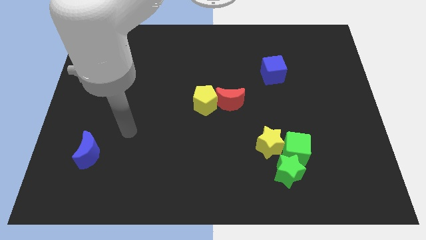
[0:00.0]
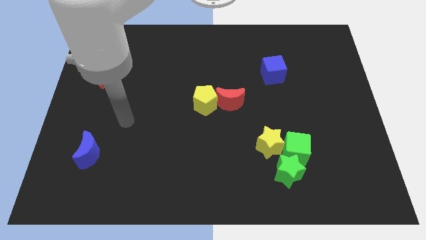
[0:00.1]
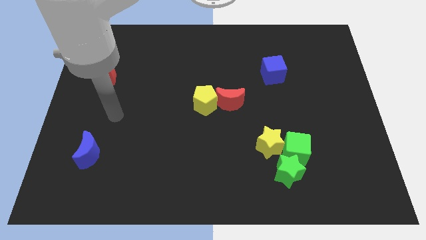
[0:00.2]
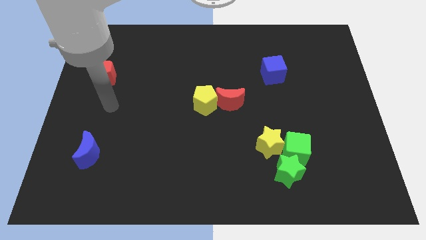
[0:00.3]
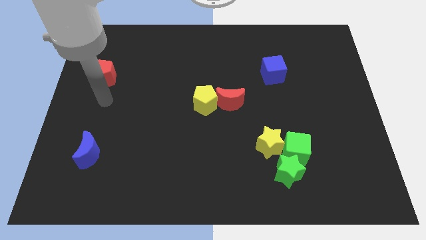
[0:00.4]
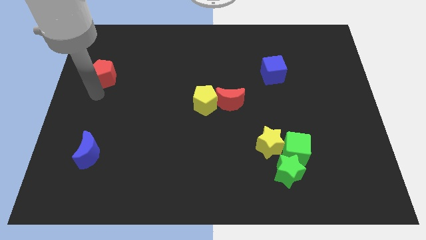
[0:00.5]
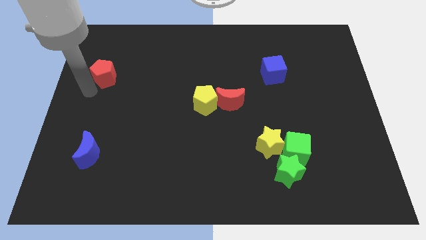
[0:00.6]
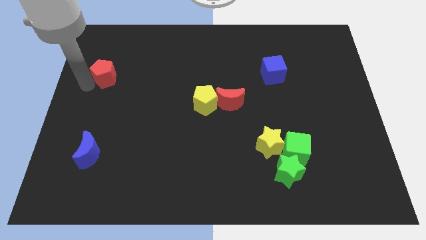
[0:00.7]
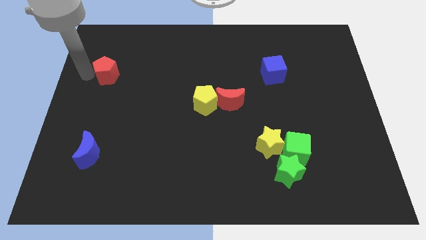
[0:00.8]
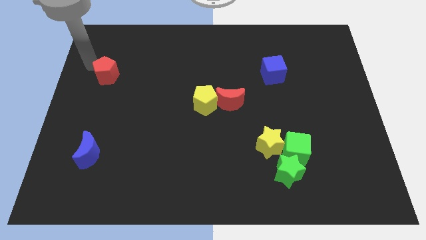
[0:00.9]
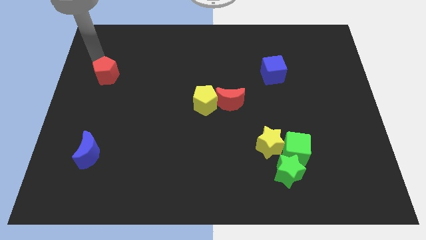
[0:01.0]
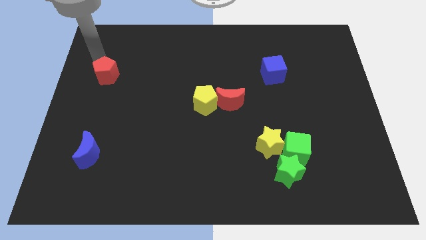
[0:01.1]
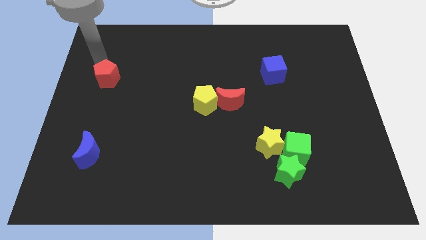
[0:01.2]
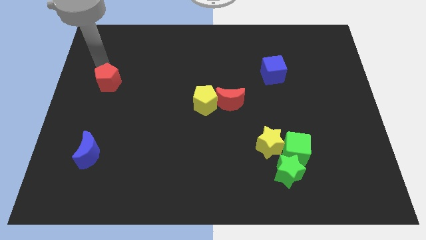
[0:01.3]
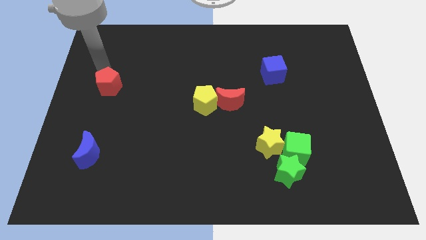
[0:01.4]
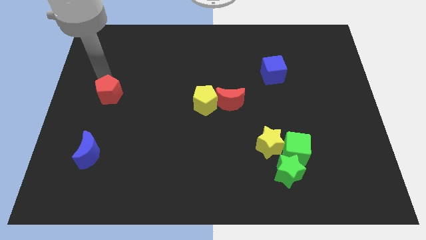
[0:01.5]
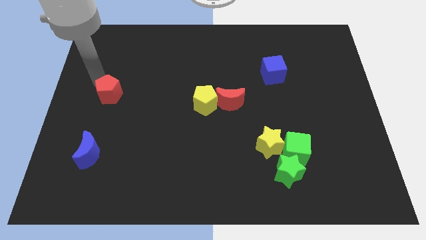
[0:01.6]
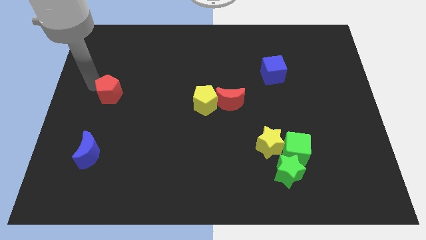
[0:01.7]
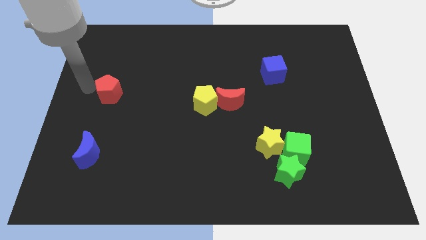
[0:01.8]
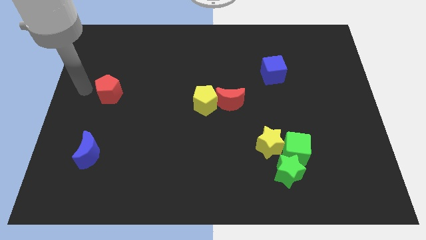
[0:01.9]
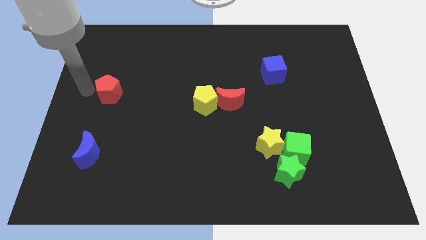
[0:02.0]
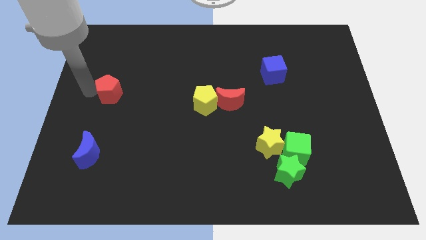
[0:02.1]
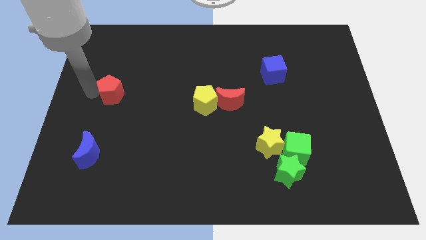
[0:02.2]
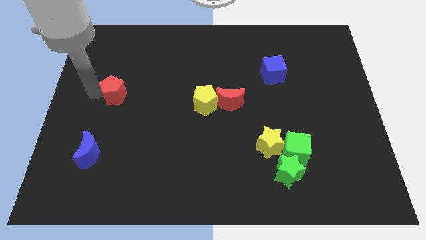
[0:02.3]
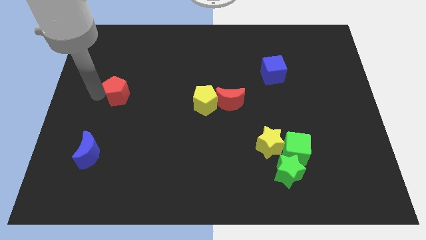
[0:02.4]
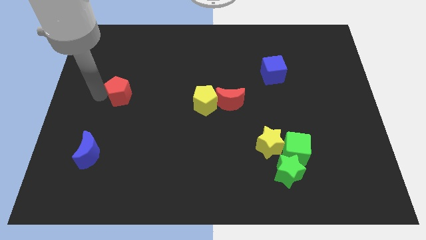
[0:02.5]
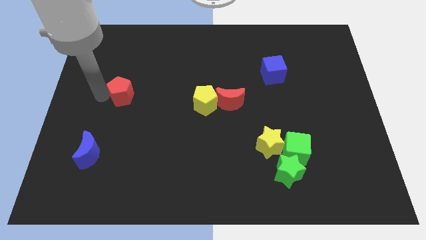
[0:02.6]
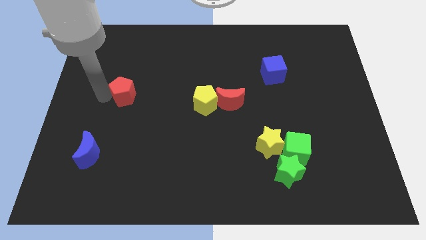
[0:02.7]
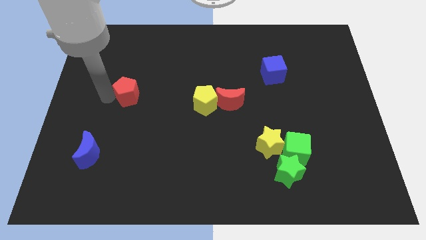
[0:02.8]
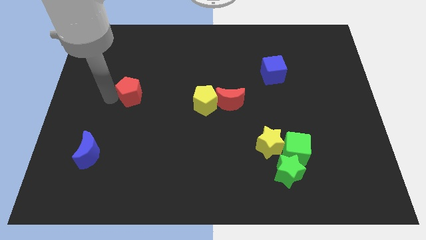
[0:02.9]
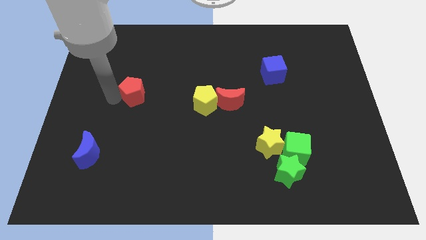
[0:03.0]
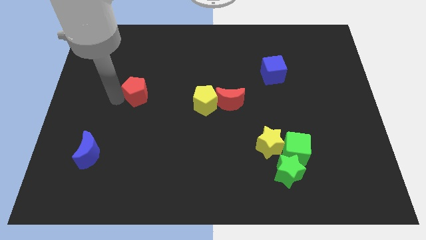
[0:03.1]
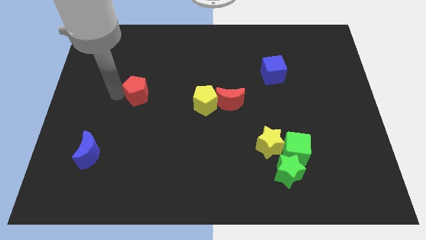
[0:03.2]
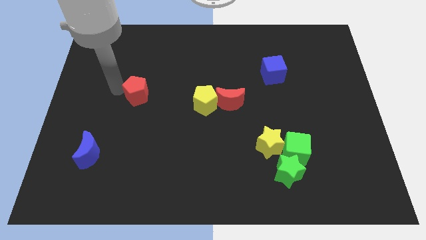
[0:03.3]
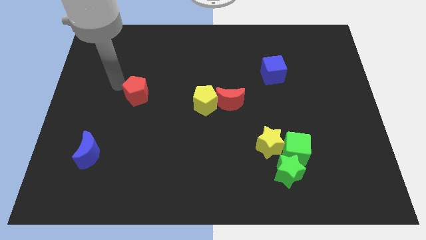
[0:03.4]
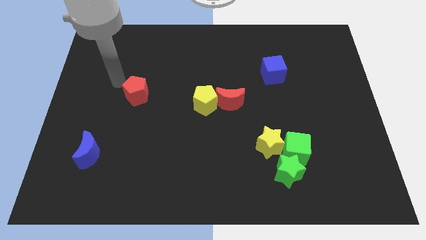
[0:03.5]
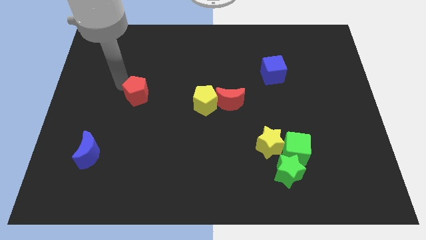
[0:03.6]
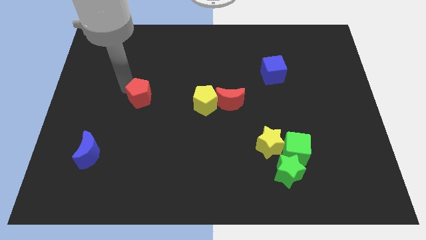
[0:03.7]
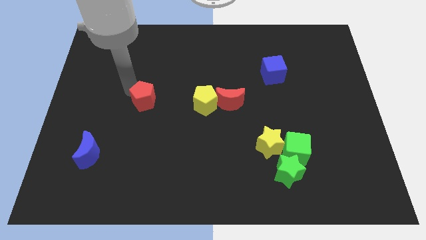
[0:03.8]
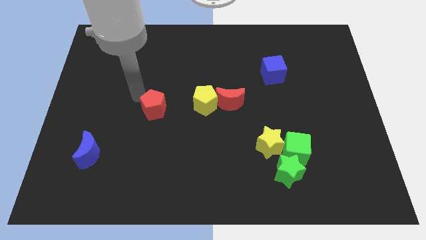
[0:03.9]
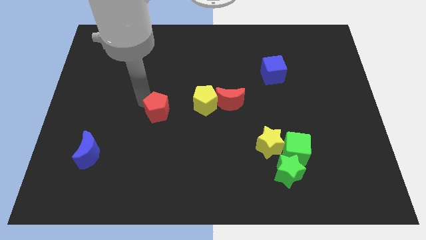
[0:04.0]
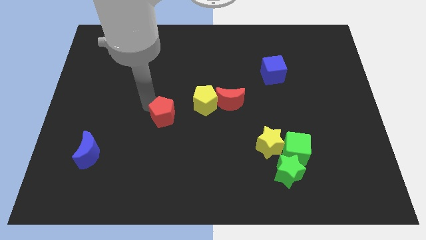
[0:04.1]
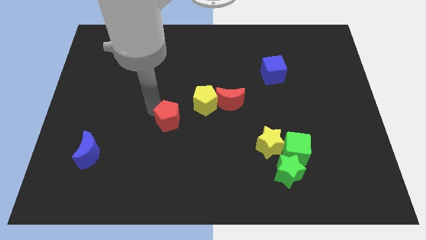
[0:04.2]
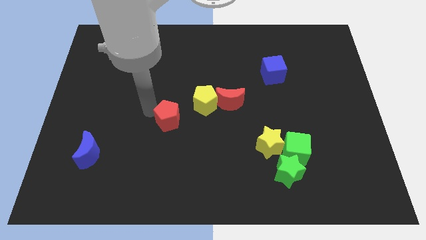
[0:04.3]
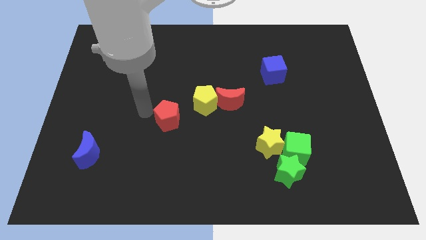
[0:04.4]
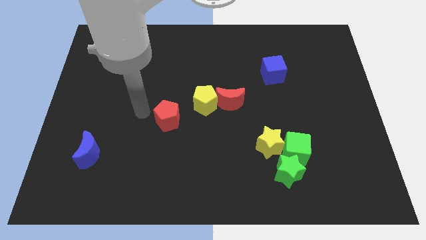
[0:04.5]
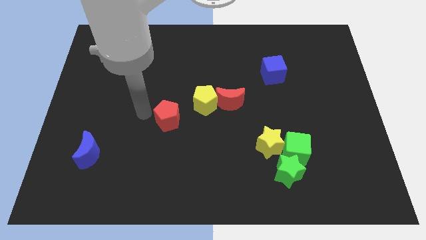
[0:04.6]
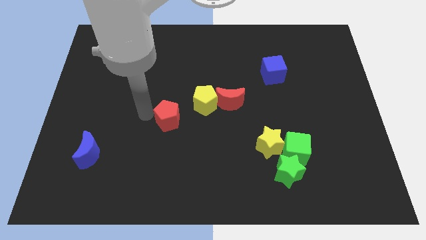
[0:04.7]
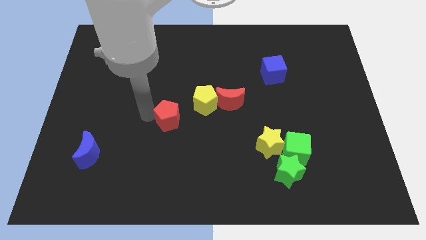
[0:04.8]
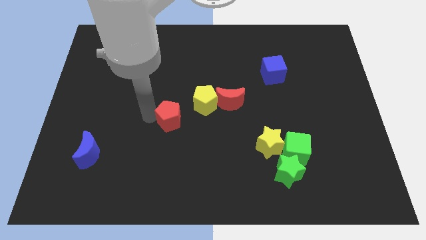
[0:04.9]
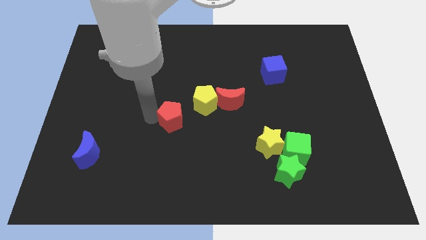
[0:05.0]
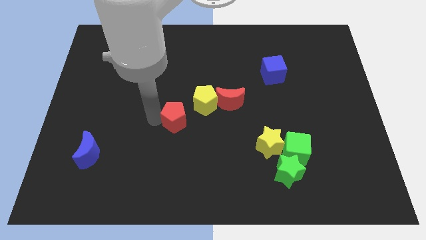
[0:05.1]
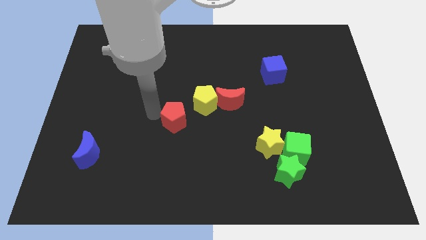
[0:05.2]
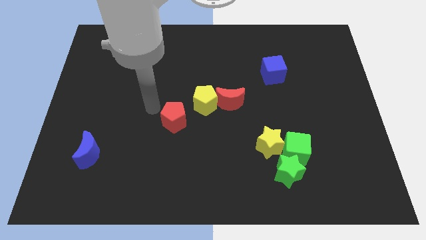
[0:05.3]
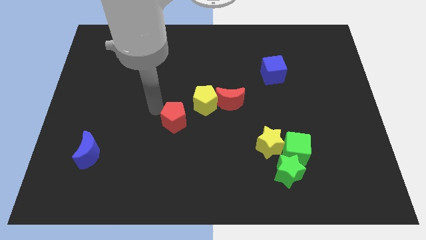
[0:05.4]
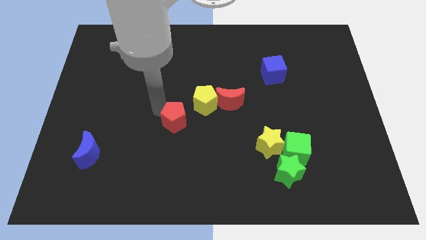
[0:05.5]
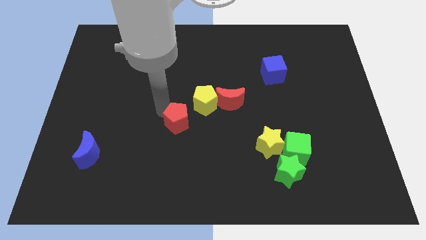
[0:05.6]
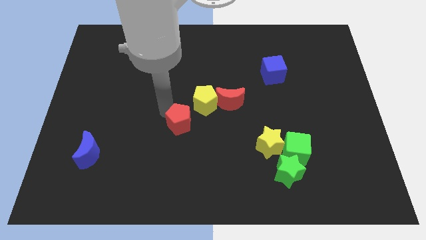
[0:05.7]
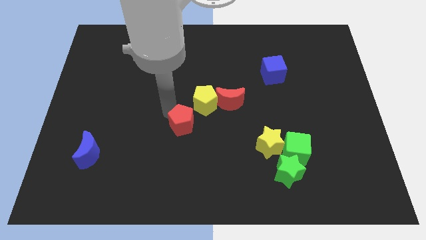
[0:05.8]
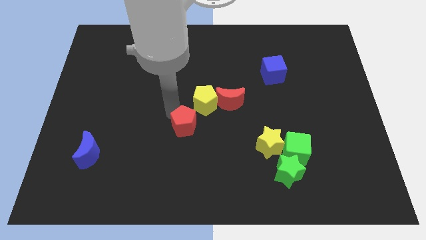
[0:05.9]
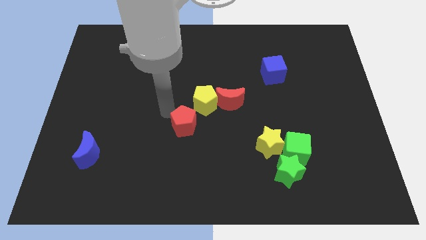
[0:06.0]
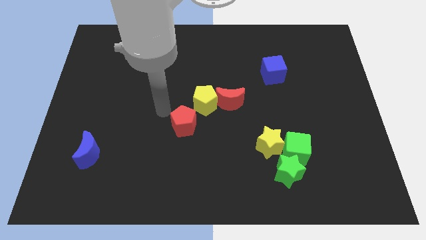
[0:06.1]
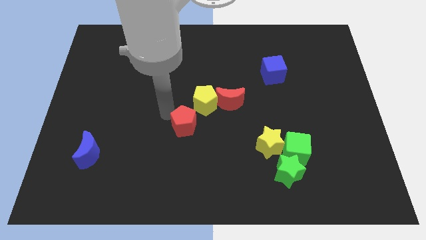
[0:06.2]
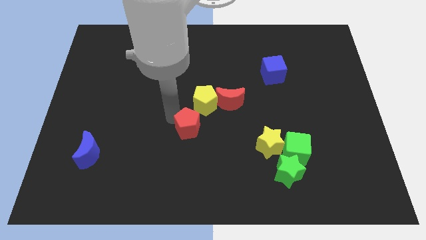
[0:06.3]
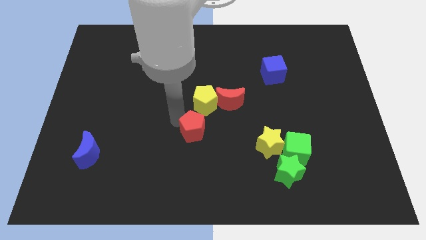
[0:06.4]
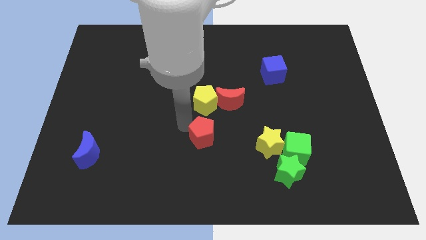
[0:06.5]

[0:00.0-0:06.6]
put the red pentagon just left of the yellow star

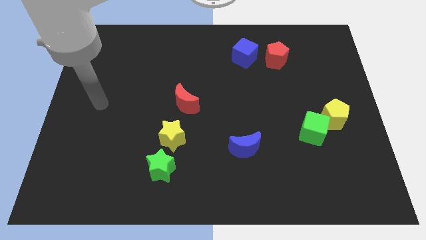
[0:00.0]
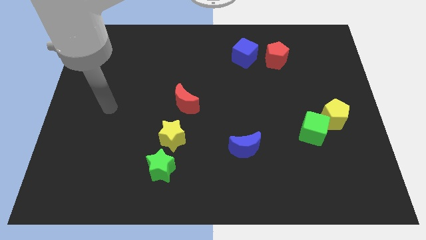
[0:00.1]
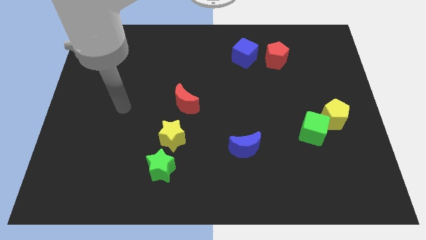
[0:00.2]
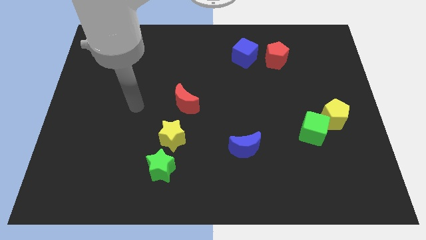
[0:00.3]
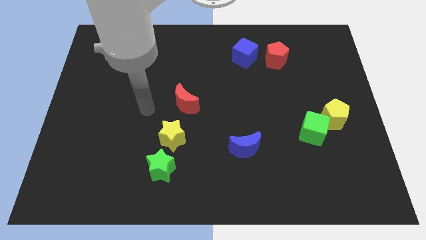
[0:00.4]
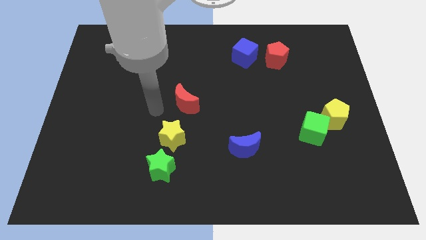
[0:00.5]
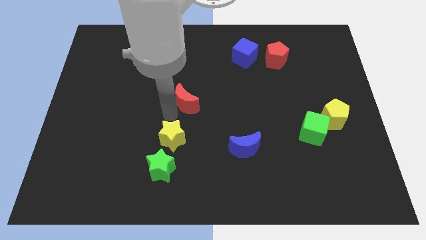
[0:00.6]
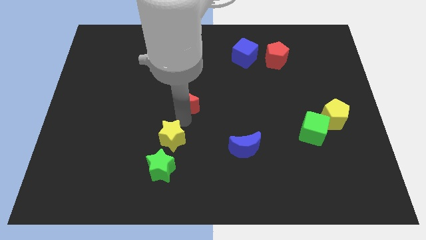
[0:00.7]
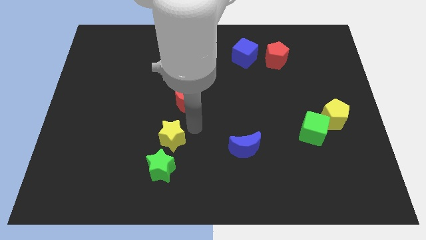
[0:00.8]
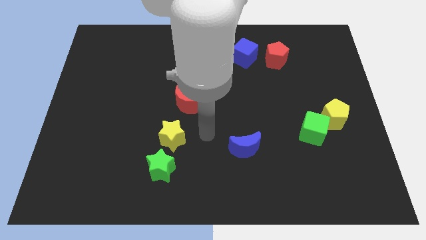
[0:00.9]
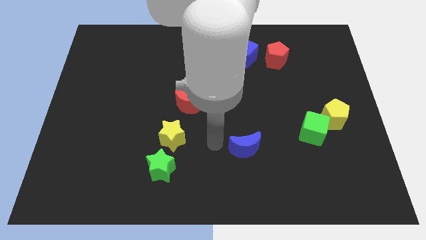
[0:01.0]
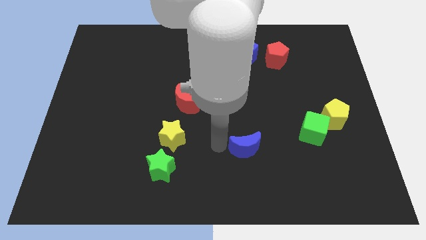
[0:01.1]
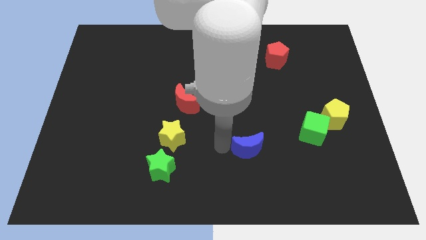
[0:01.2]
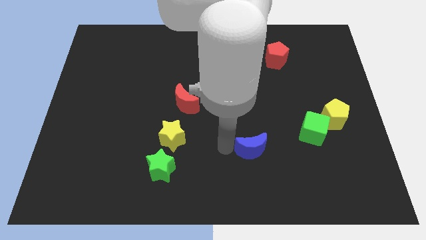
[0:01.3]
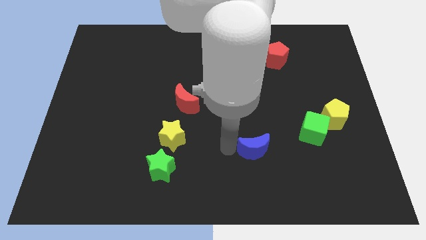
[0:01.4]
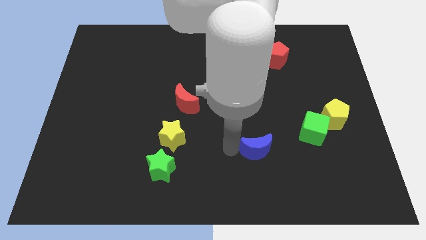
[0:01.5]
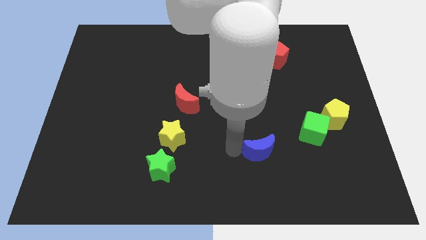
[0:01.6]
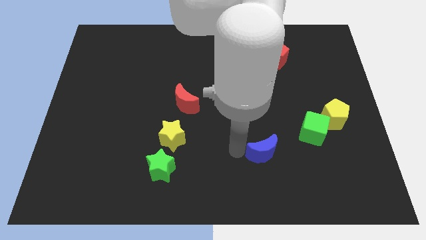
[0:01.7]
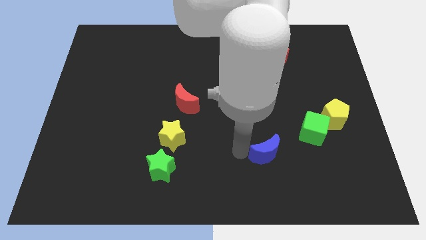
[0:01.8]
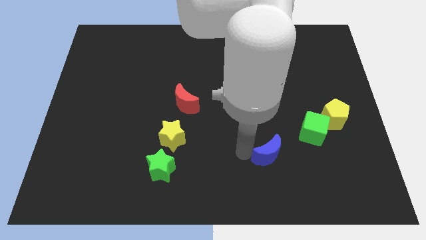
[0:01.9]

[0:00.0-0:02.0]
push the blue moon diagonally down and to the left of the green cube
